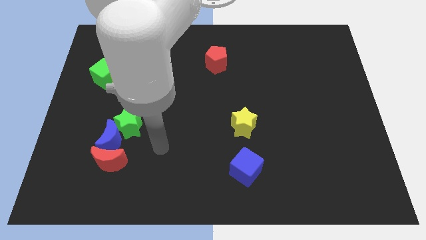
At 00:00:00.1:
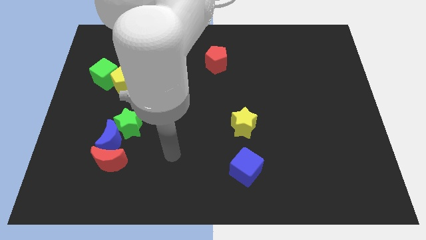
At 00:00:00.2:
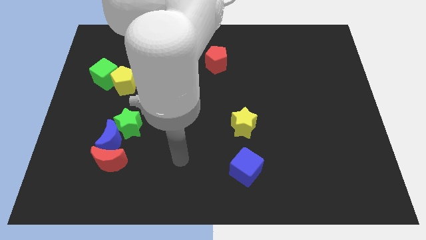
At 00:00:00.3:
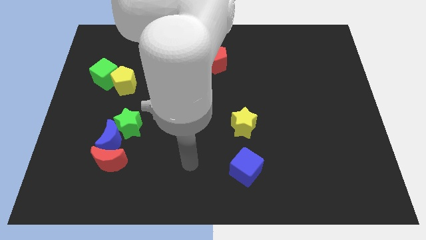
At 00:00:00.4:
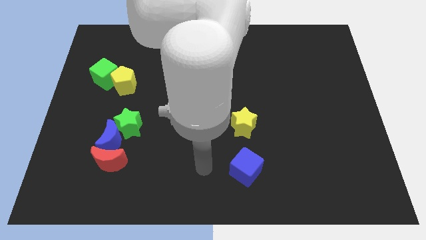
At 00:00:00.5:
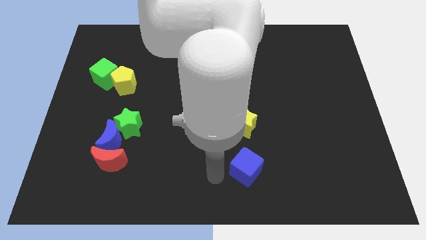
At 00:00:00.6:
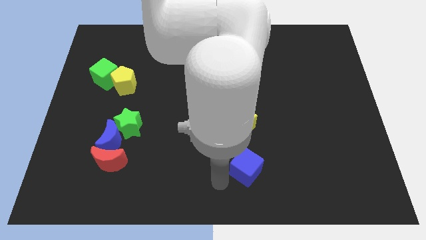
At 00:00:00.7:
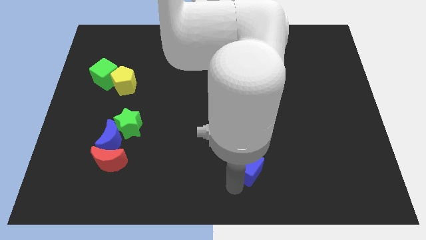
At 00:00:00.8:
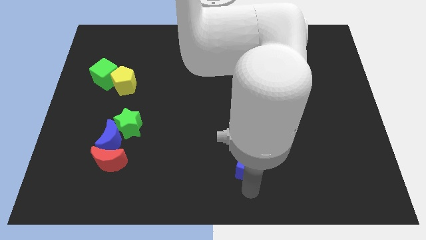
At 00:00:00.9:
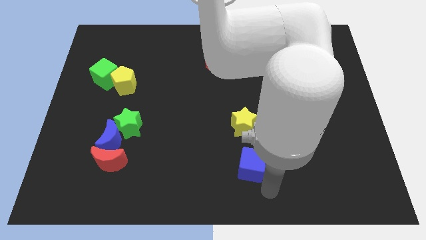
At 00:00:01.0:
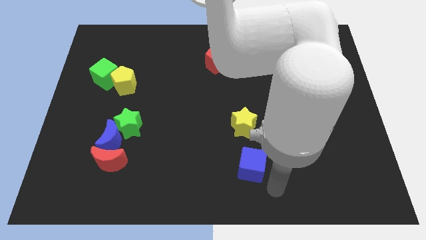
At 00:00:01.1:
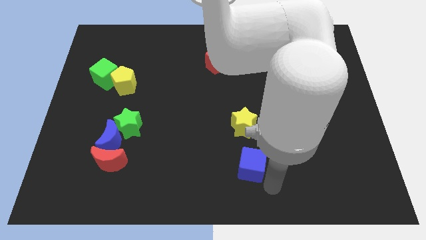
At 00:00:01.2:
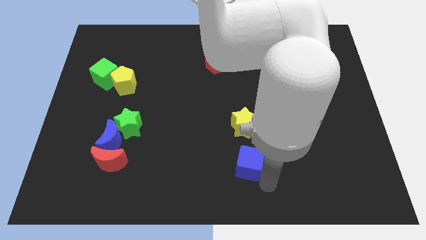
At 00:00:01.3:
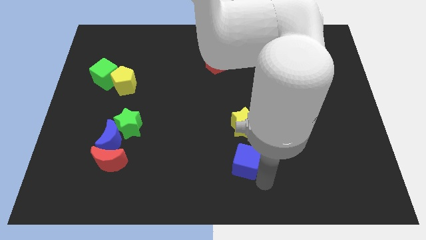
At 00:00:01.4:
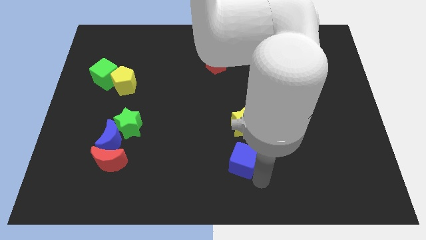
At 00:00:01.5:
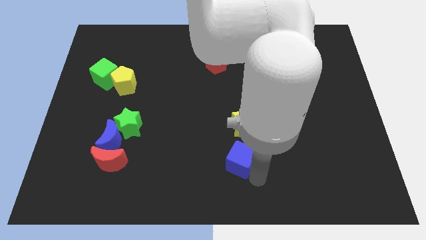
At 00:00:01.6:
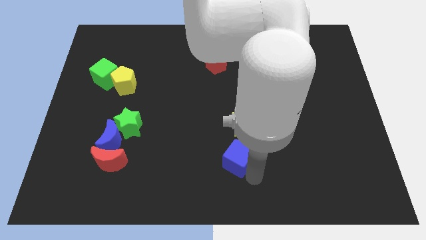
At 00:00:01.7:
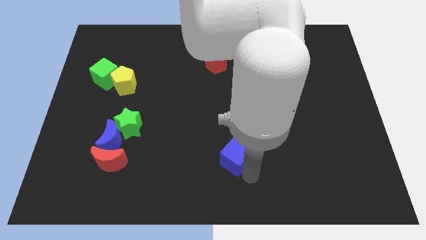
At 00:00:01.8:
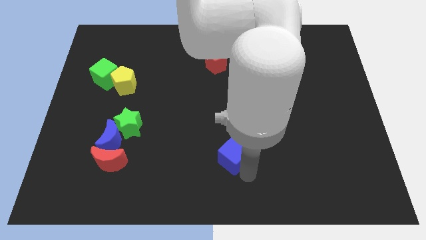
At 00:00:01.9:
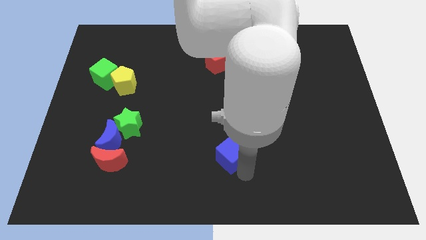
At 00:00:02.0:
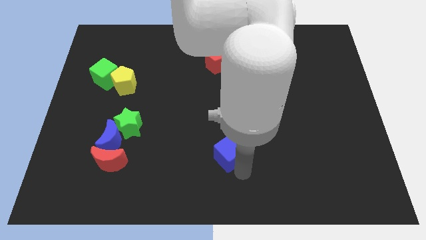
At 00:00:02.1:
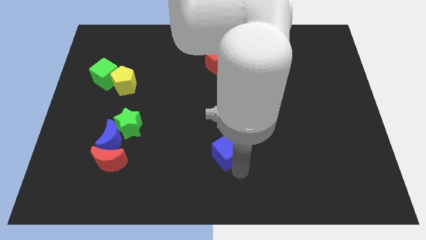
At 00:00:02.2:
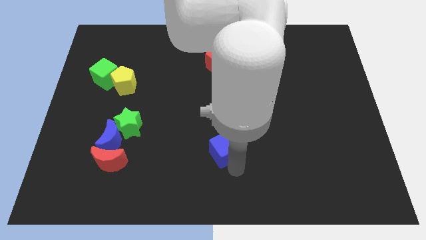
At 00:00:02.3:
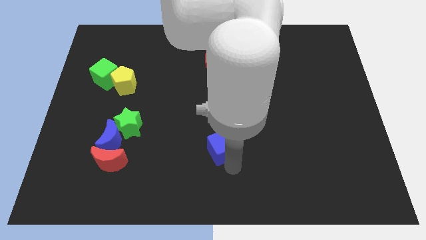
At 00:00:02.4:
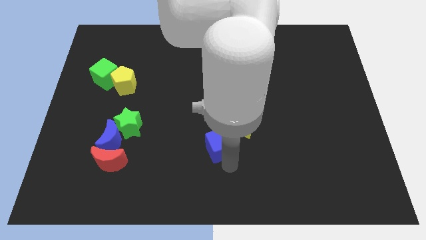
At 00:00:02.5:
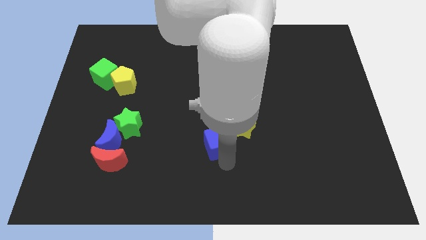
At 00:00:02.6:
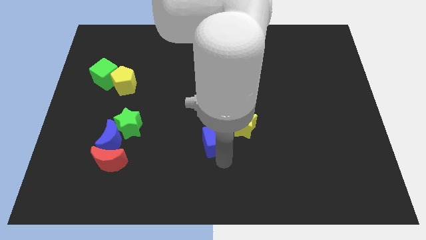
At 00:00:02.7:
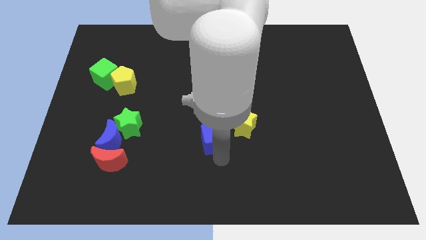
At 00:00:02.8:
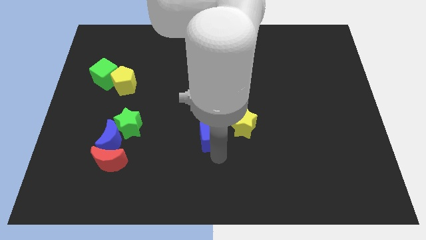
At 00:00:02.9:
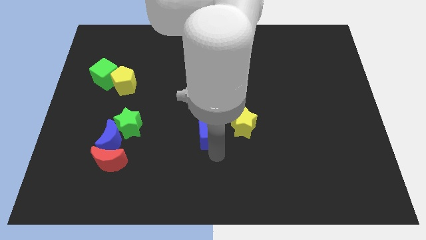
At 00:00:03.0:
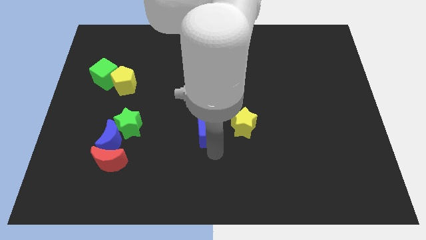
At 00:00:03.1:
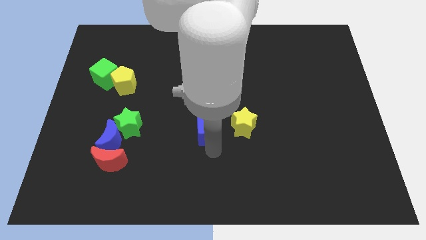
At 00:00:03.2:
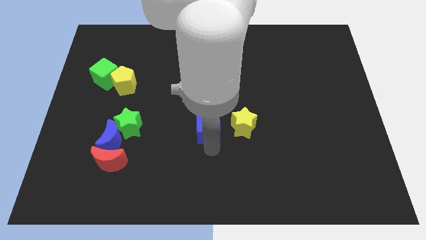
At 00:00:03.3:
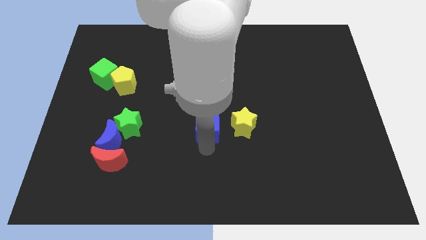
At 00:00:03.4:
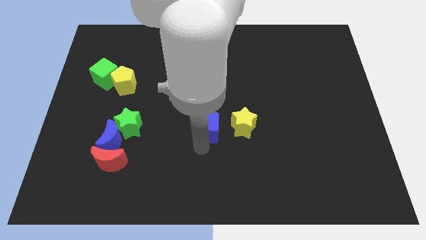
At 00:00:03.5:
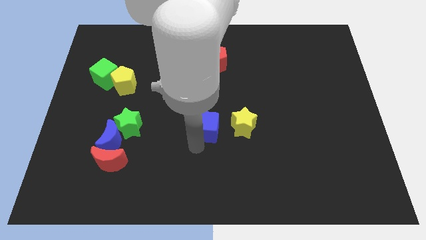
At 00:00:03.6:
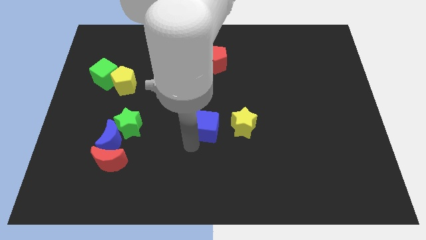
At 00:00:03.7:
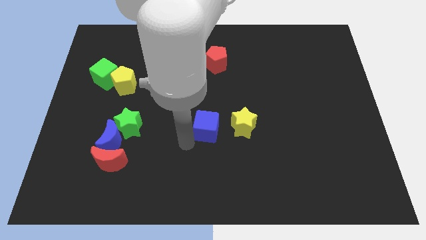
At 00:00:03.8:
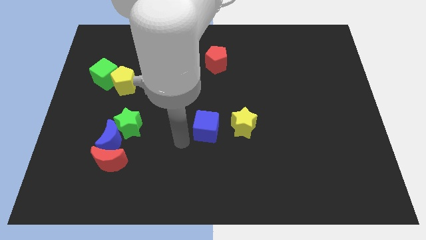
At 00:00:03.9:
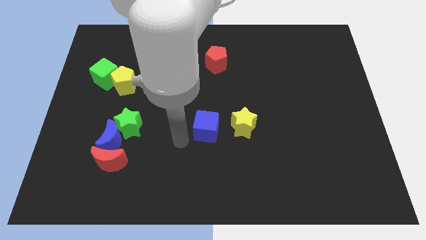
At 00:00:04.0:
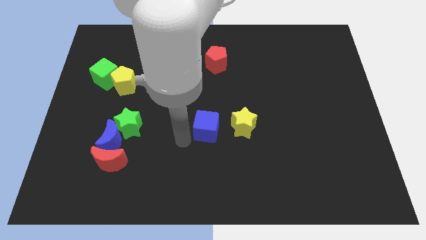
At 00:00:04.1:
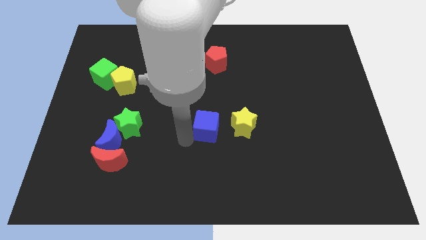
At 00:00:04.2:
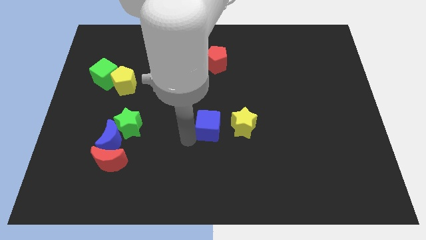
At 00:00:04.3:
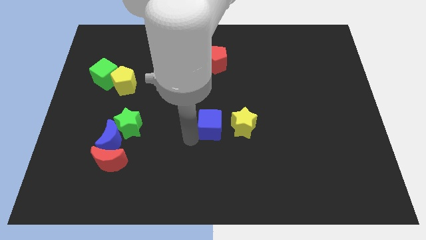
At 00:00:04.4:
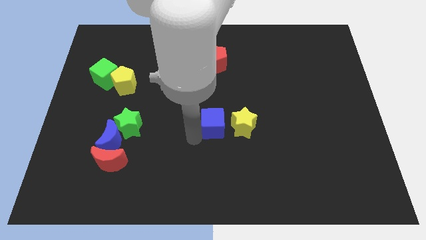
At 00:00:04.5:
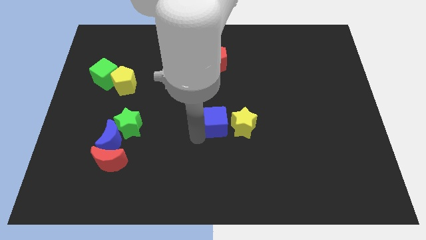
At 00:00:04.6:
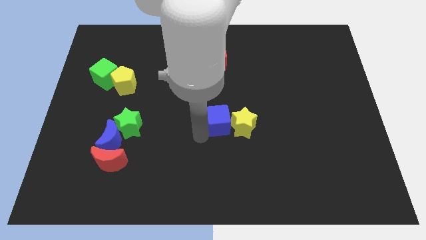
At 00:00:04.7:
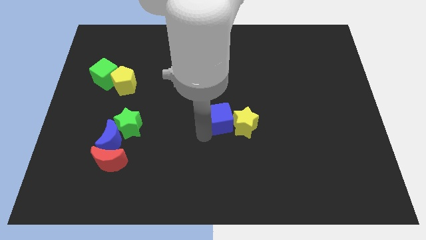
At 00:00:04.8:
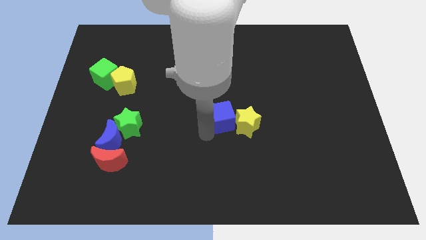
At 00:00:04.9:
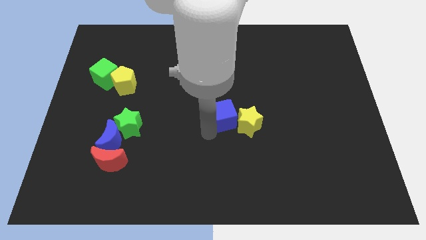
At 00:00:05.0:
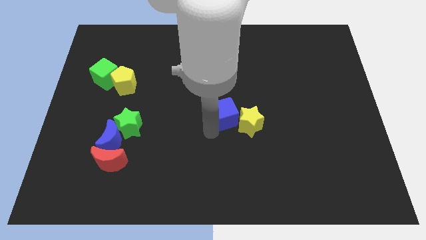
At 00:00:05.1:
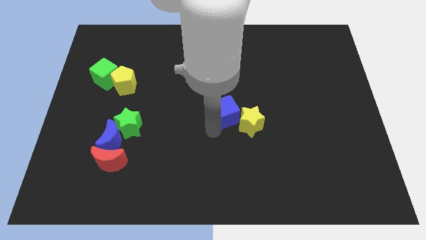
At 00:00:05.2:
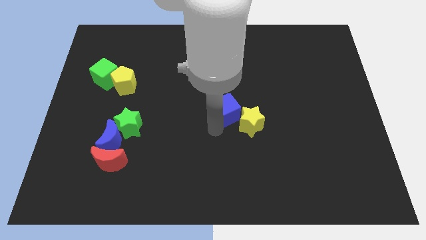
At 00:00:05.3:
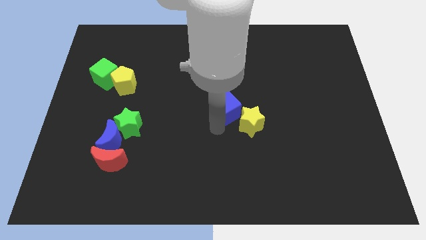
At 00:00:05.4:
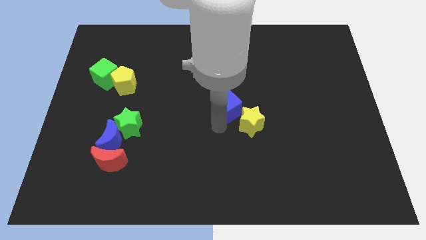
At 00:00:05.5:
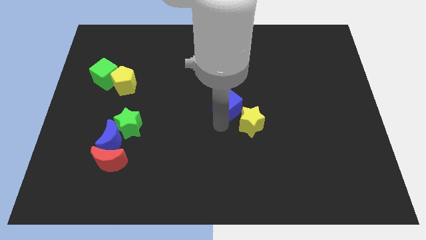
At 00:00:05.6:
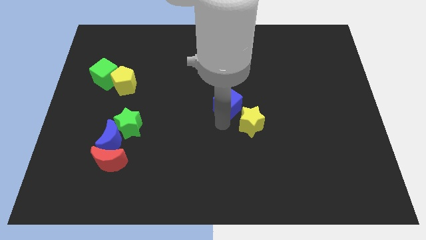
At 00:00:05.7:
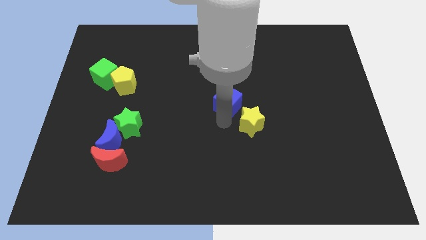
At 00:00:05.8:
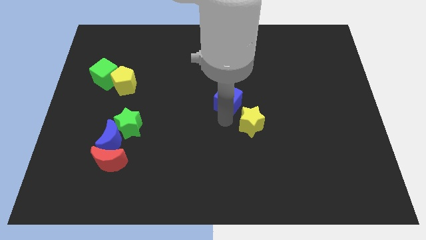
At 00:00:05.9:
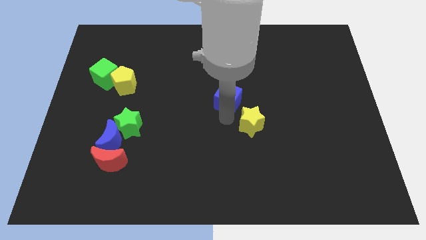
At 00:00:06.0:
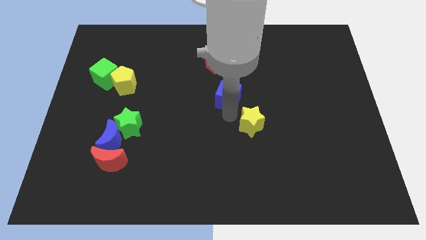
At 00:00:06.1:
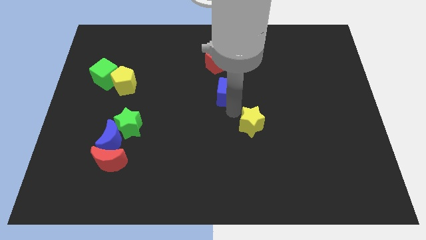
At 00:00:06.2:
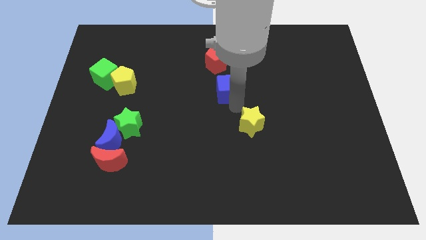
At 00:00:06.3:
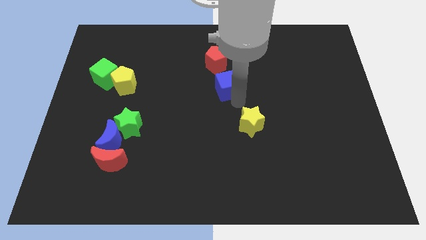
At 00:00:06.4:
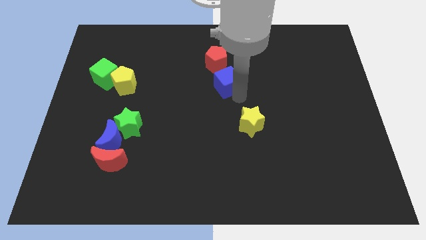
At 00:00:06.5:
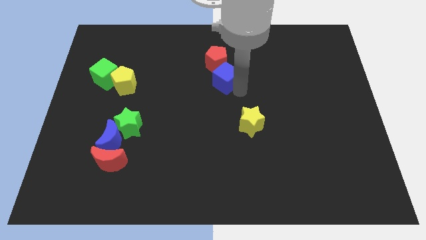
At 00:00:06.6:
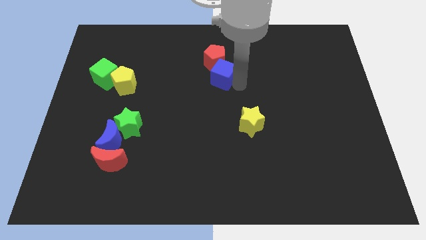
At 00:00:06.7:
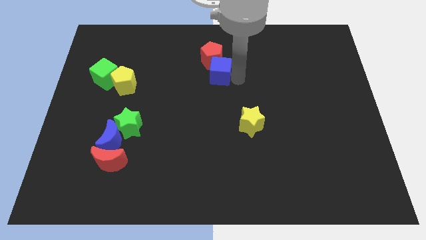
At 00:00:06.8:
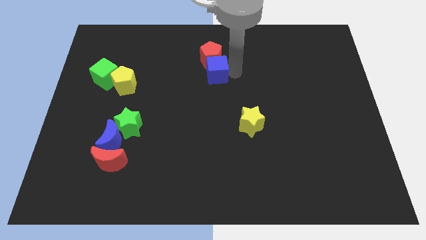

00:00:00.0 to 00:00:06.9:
put the blue cube to the bottom left side of the red pentagon

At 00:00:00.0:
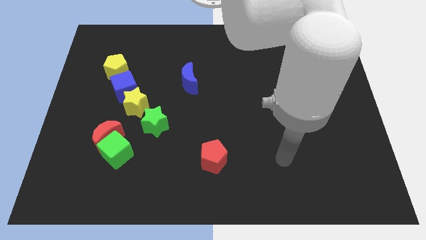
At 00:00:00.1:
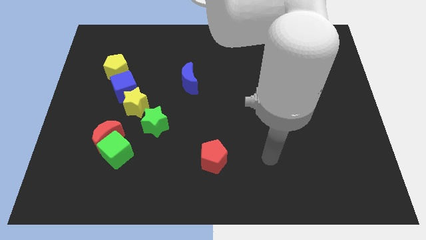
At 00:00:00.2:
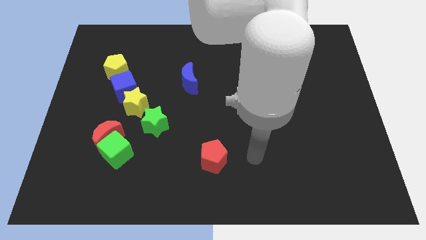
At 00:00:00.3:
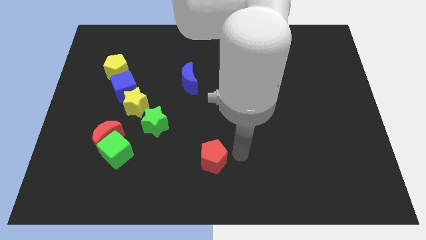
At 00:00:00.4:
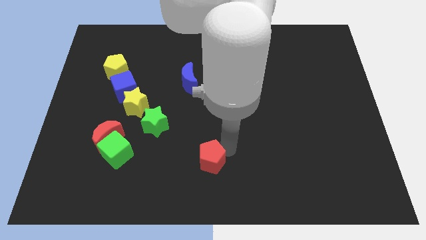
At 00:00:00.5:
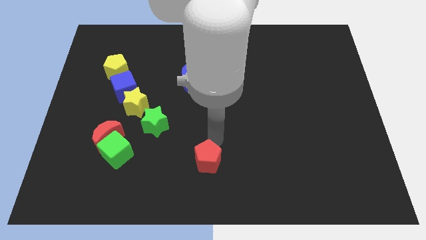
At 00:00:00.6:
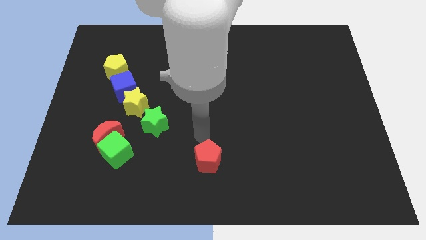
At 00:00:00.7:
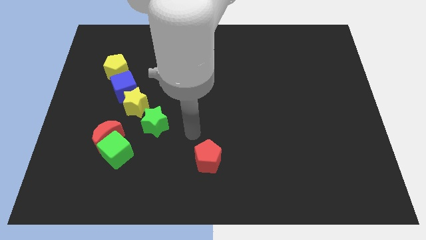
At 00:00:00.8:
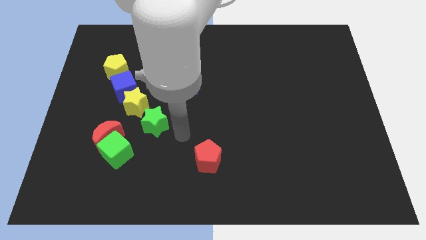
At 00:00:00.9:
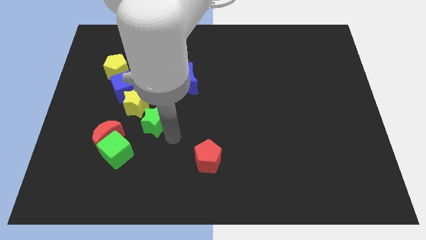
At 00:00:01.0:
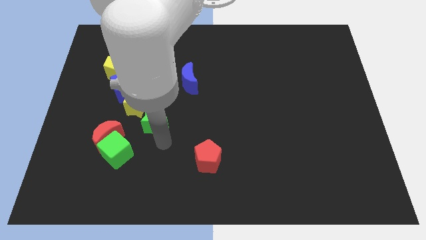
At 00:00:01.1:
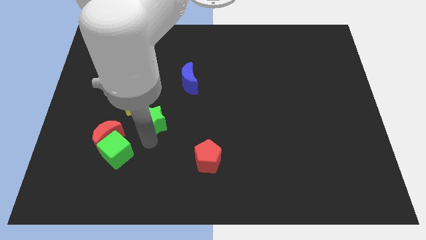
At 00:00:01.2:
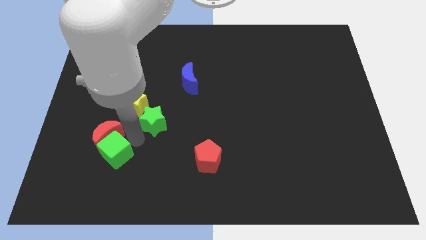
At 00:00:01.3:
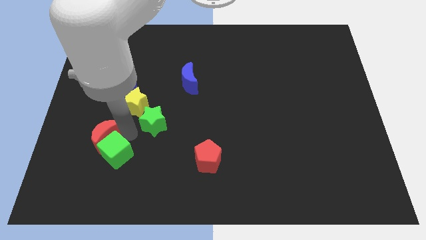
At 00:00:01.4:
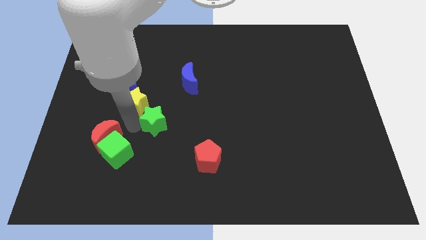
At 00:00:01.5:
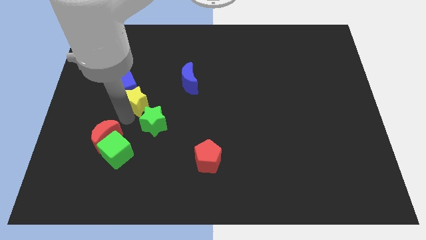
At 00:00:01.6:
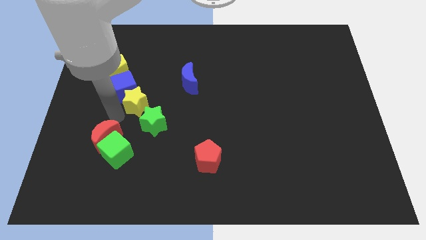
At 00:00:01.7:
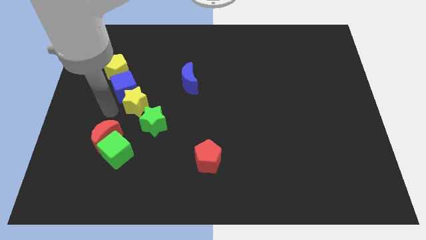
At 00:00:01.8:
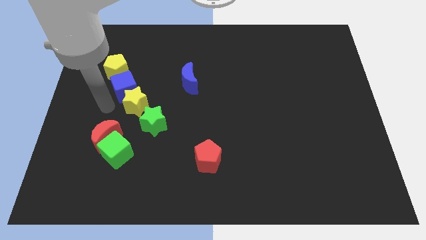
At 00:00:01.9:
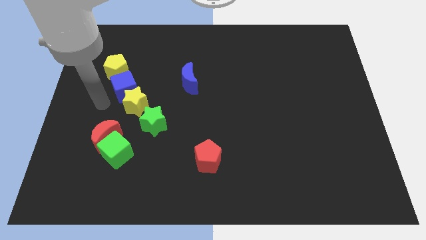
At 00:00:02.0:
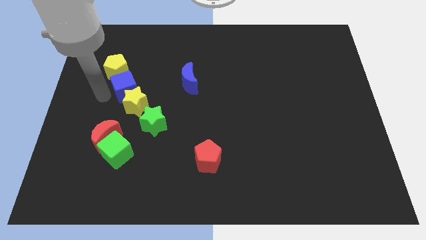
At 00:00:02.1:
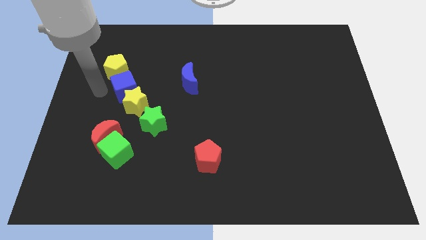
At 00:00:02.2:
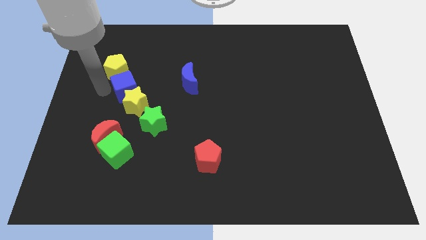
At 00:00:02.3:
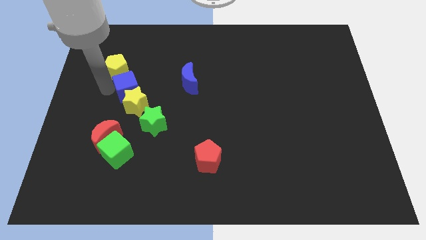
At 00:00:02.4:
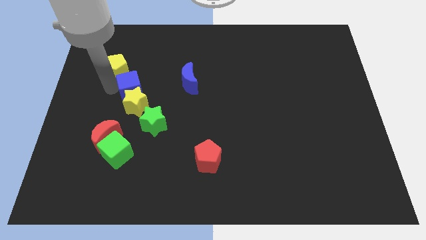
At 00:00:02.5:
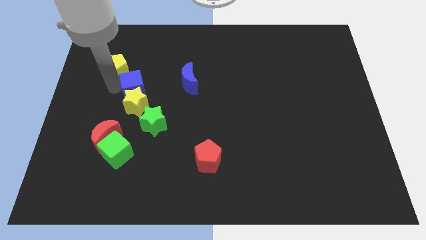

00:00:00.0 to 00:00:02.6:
put the blue cube to the top right of the yellow star
